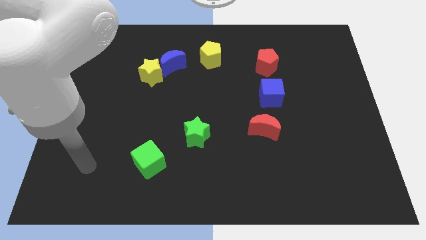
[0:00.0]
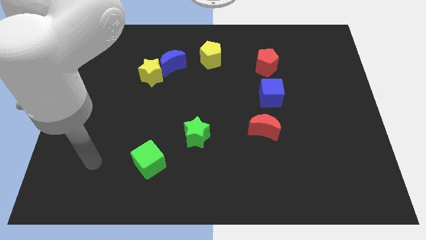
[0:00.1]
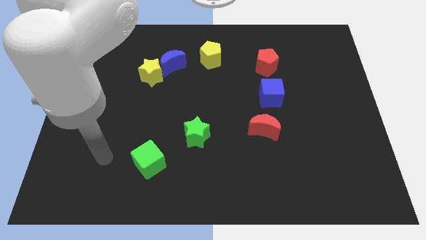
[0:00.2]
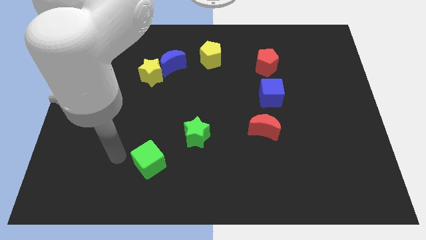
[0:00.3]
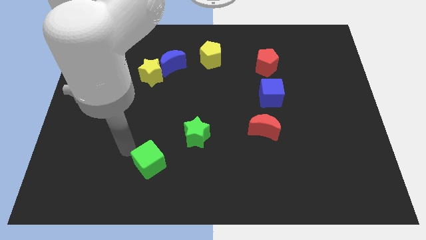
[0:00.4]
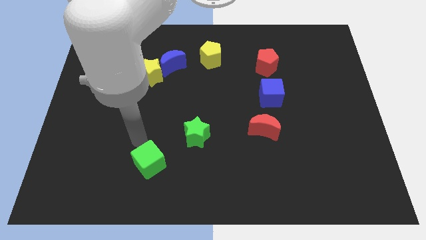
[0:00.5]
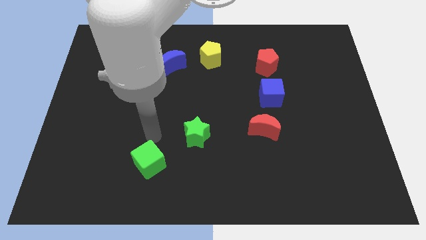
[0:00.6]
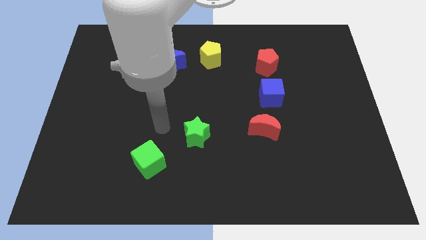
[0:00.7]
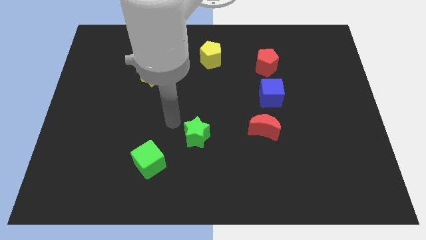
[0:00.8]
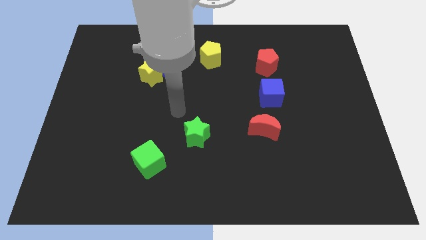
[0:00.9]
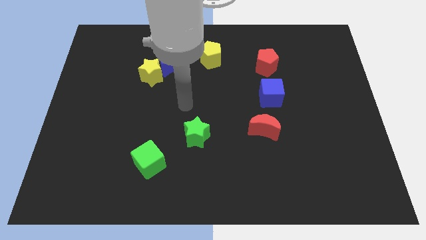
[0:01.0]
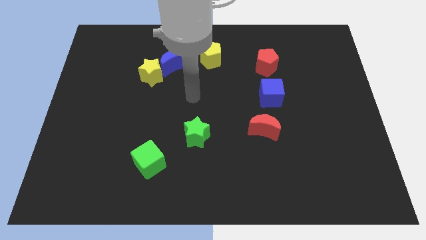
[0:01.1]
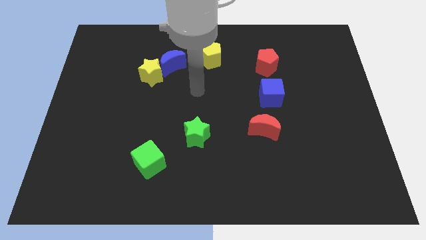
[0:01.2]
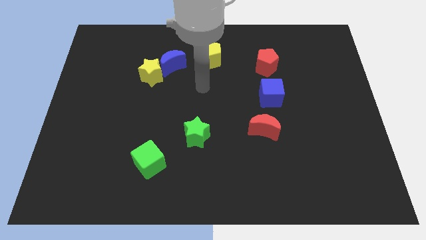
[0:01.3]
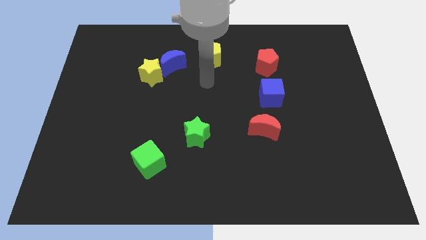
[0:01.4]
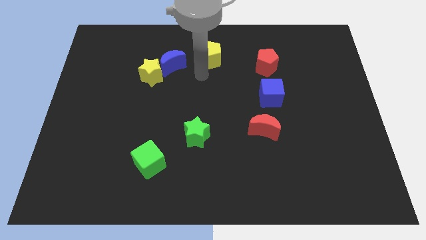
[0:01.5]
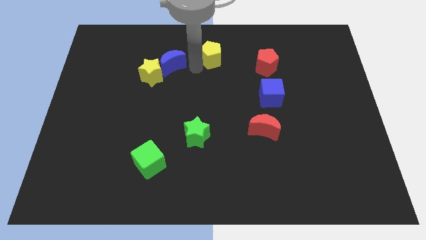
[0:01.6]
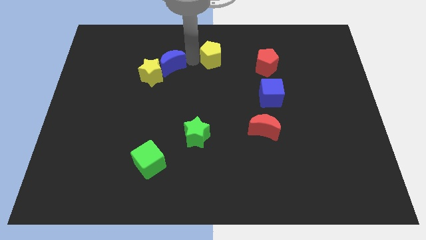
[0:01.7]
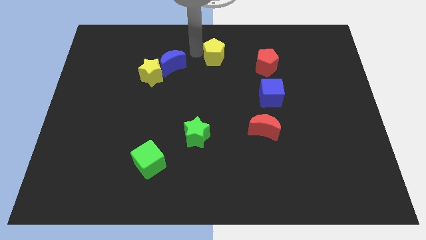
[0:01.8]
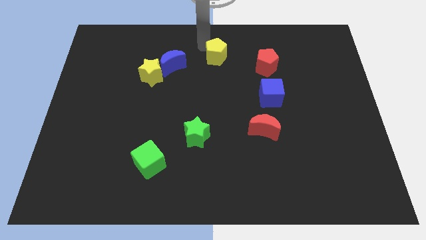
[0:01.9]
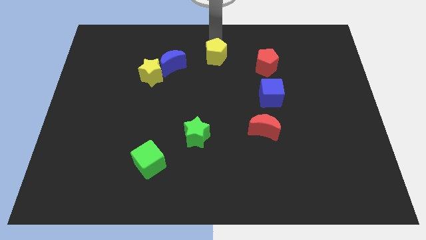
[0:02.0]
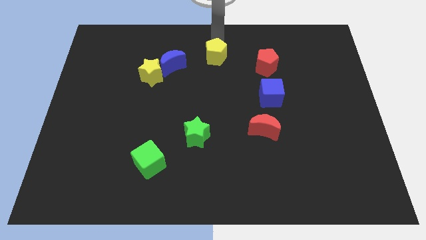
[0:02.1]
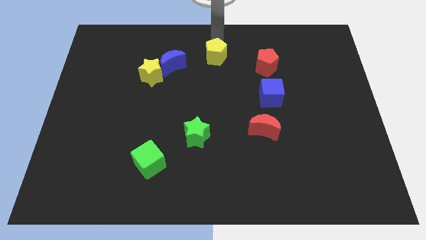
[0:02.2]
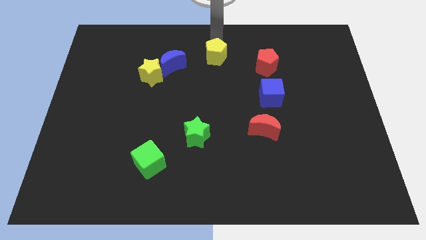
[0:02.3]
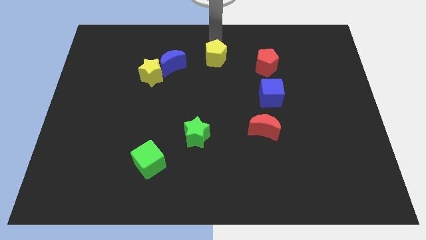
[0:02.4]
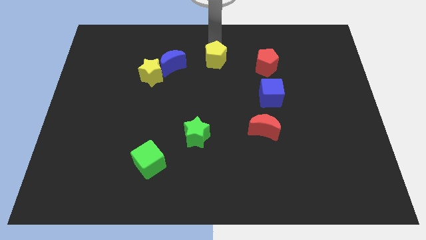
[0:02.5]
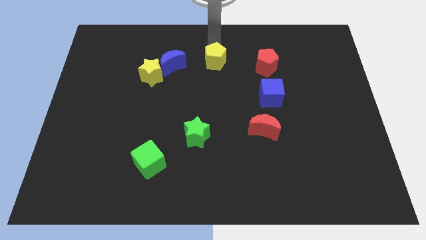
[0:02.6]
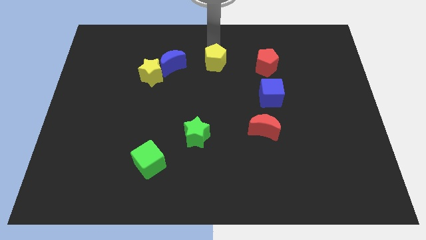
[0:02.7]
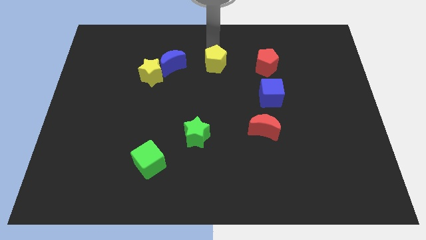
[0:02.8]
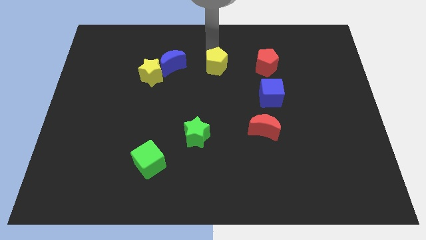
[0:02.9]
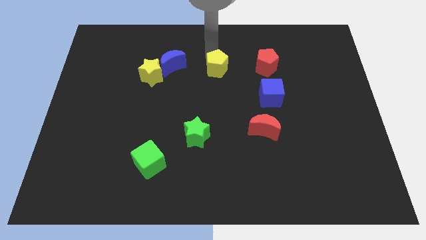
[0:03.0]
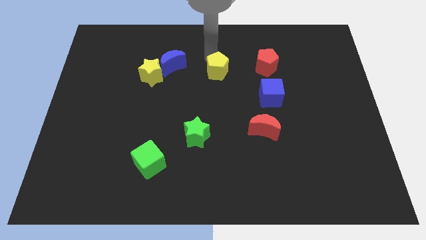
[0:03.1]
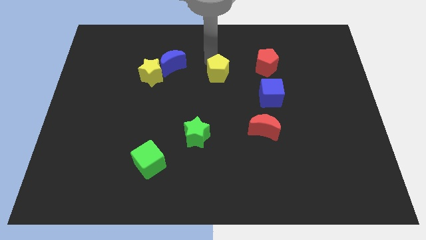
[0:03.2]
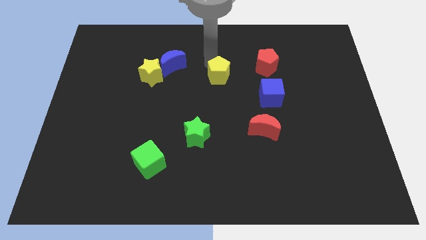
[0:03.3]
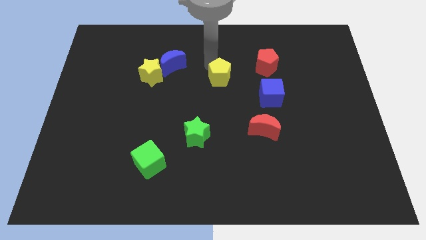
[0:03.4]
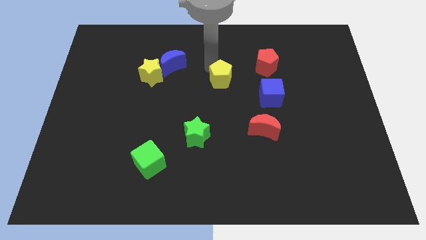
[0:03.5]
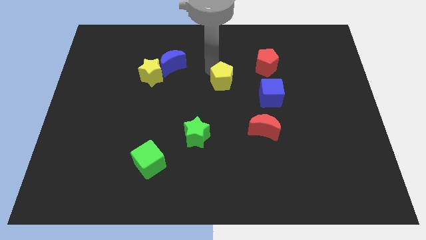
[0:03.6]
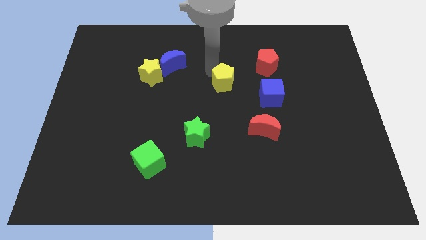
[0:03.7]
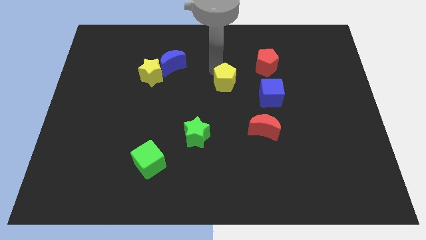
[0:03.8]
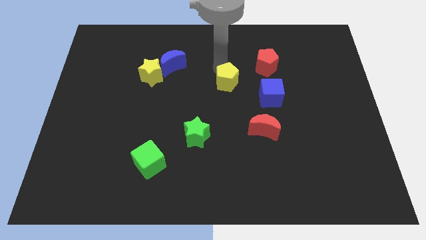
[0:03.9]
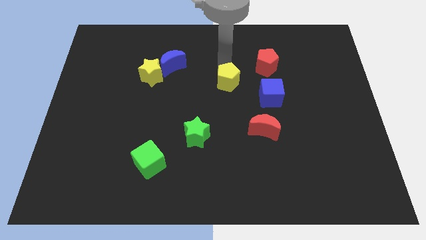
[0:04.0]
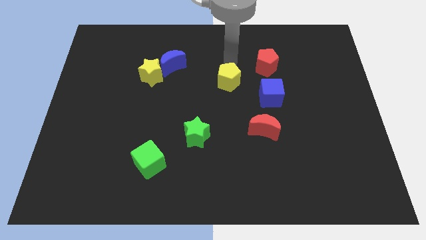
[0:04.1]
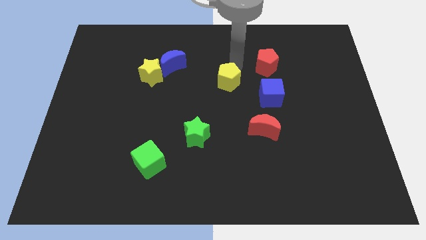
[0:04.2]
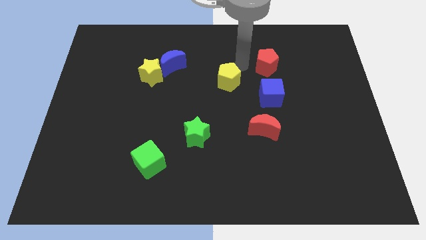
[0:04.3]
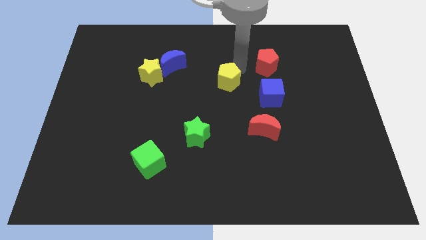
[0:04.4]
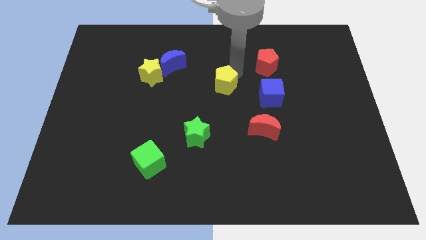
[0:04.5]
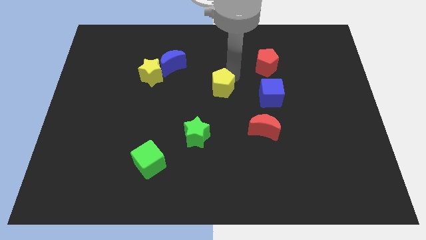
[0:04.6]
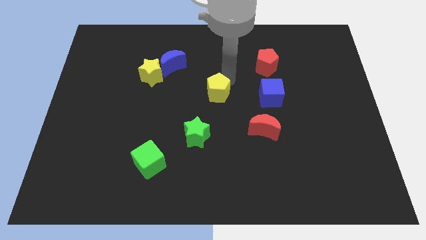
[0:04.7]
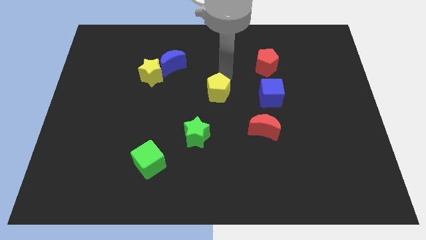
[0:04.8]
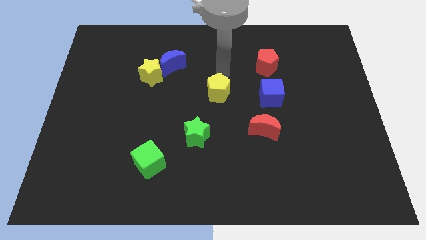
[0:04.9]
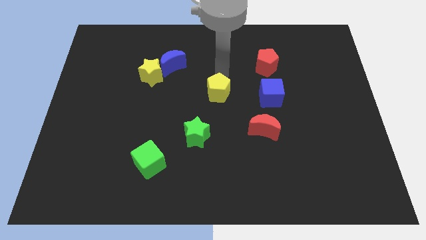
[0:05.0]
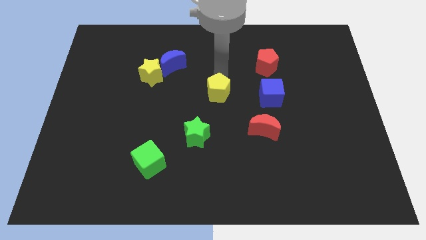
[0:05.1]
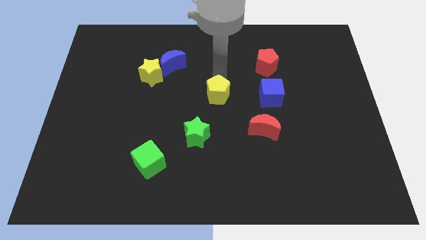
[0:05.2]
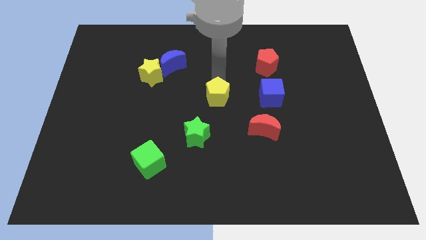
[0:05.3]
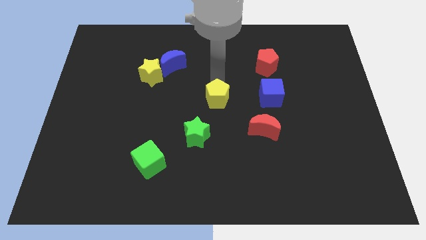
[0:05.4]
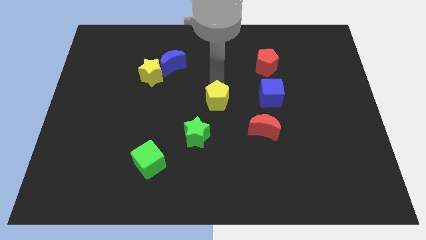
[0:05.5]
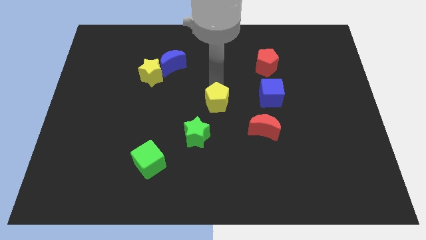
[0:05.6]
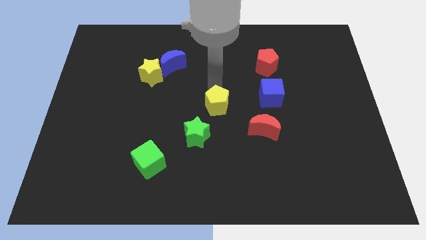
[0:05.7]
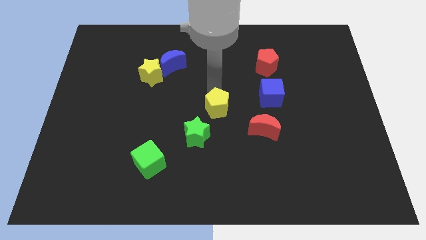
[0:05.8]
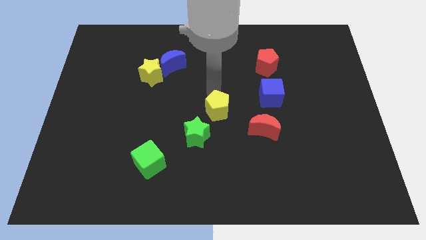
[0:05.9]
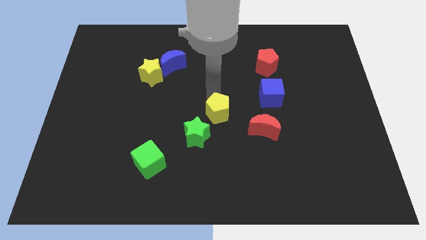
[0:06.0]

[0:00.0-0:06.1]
put the yellow pentagon to the left side of the red moon

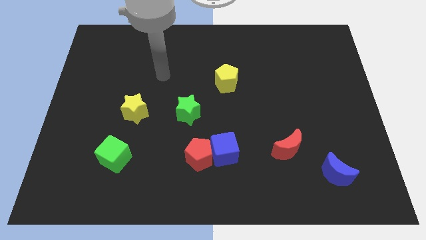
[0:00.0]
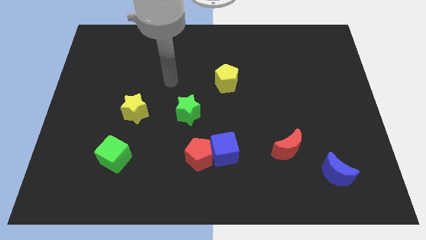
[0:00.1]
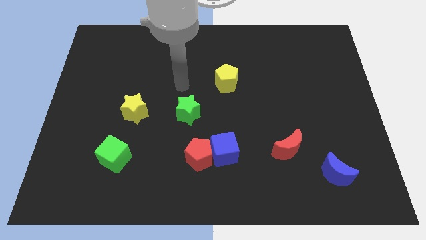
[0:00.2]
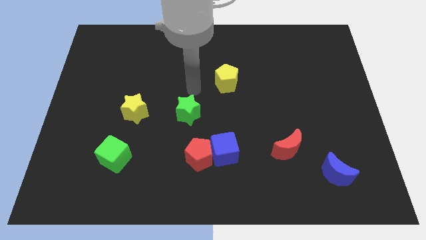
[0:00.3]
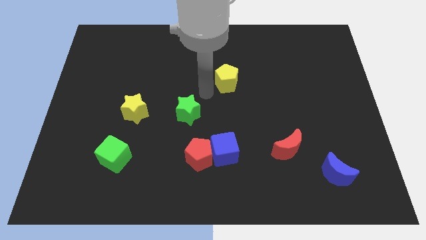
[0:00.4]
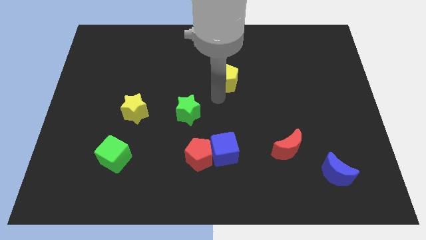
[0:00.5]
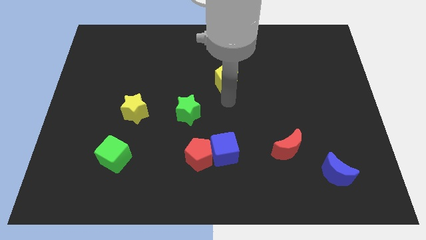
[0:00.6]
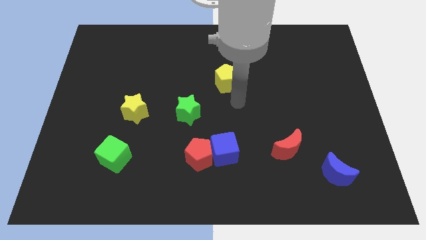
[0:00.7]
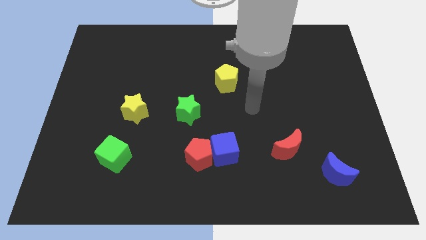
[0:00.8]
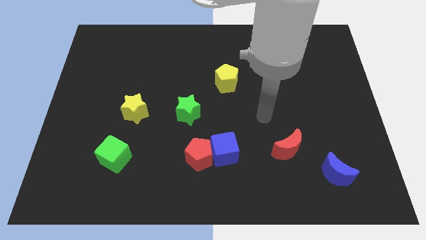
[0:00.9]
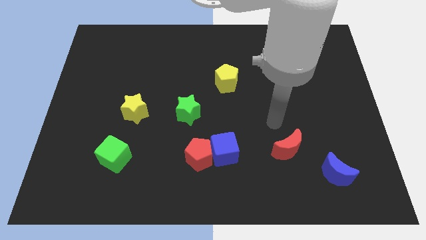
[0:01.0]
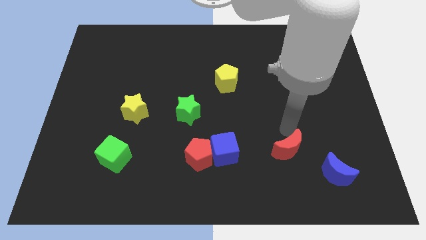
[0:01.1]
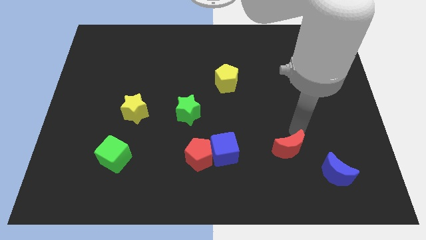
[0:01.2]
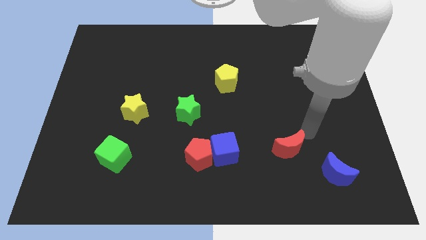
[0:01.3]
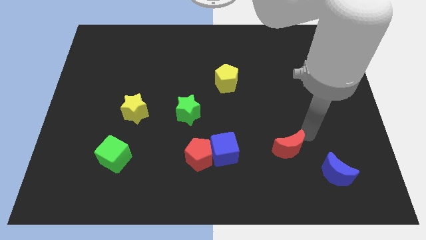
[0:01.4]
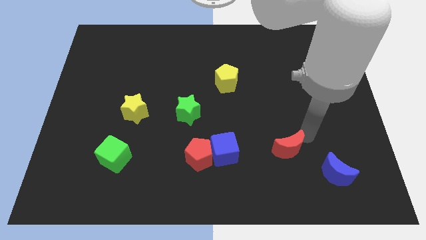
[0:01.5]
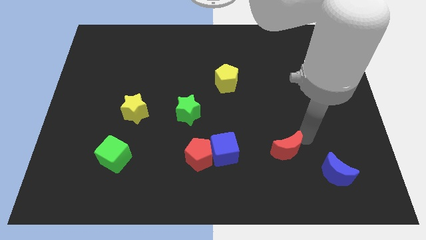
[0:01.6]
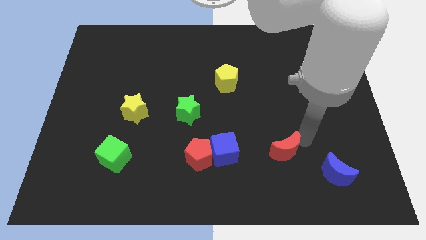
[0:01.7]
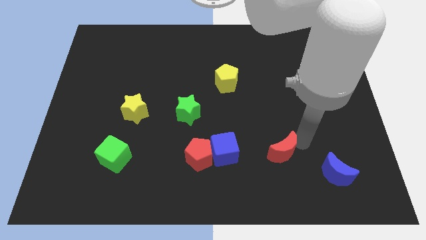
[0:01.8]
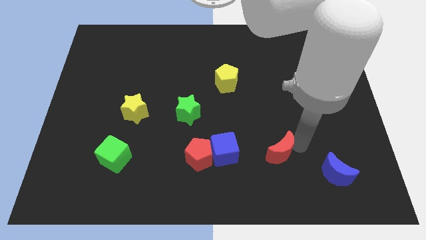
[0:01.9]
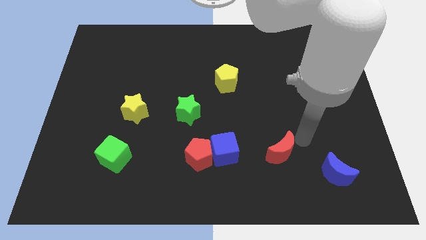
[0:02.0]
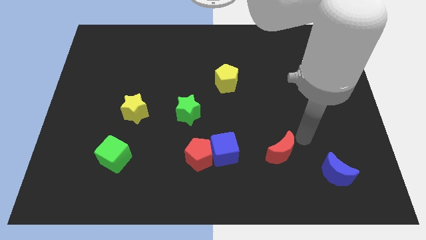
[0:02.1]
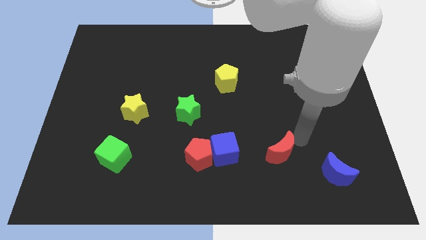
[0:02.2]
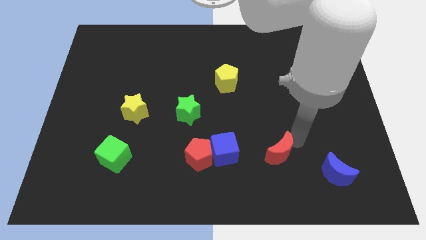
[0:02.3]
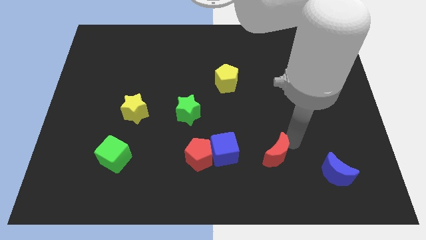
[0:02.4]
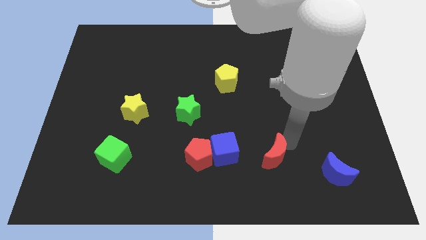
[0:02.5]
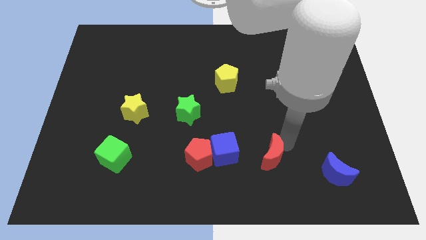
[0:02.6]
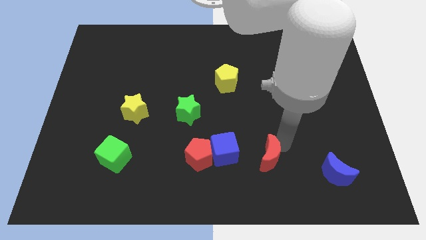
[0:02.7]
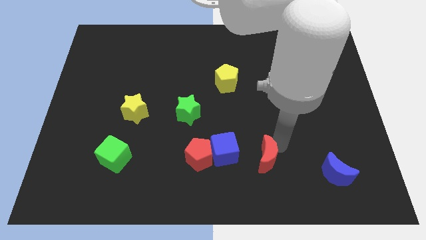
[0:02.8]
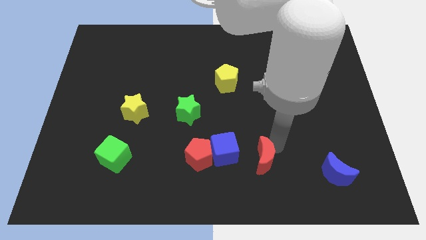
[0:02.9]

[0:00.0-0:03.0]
move the red moon to the bottom right side of the blue cube
